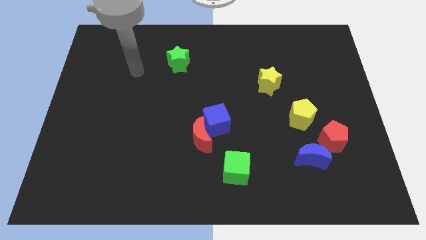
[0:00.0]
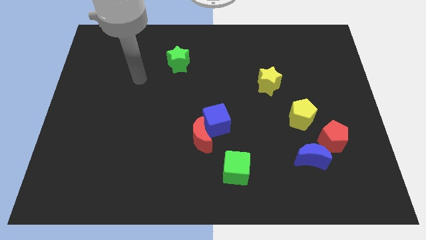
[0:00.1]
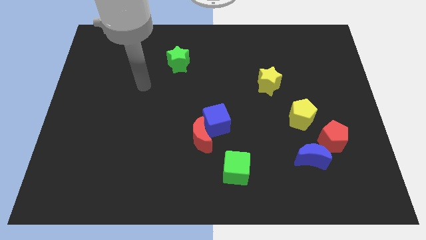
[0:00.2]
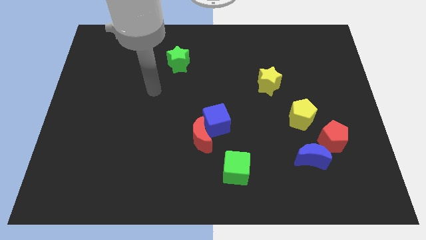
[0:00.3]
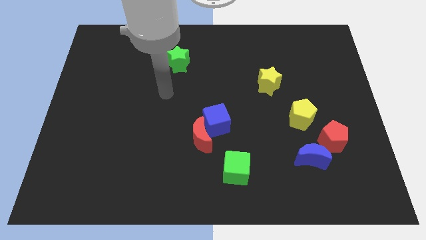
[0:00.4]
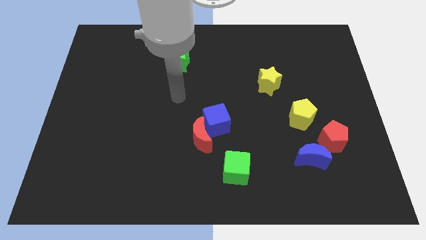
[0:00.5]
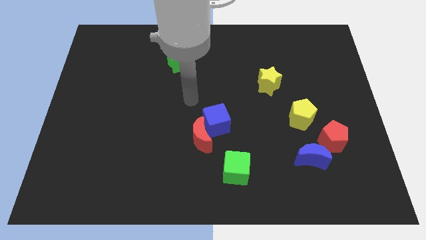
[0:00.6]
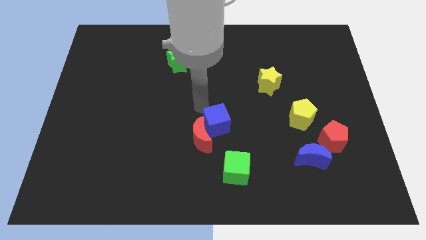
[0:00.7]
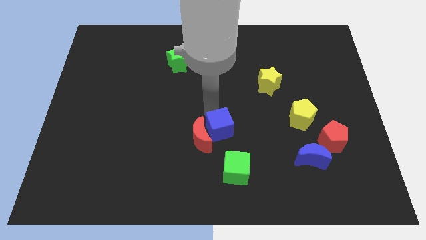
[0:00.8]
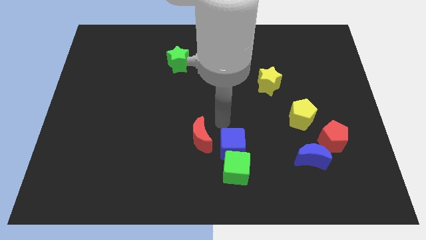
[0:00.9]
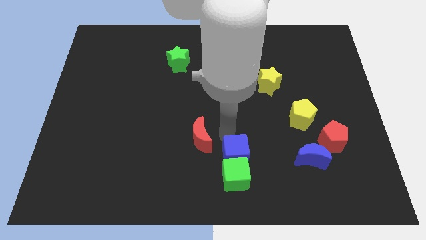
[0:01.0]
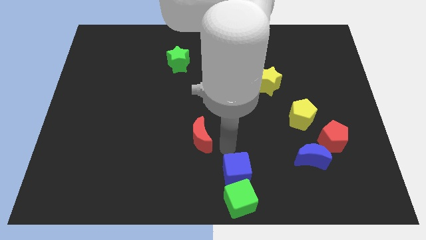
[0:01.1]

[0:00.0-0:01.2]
move the red moon away from the blue cube

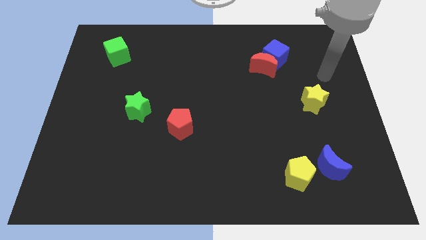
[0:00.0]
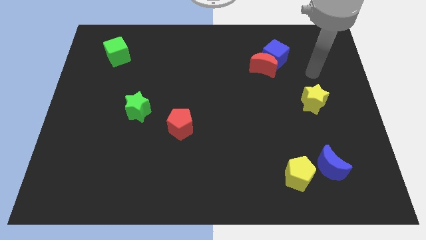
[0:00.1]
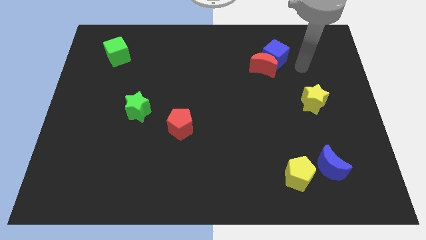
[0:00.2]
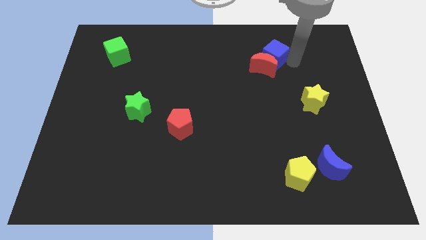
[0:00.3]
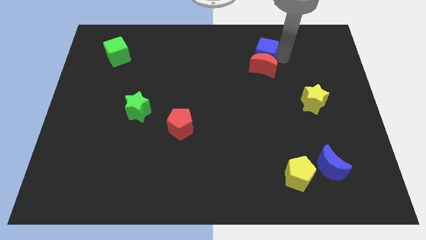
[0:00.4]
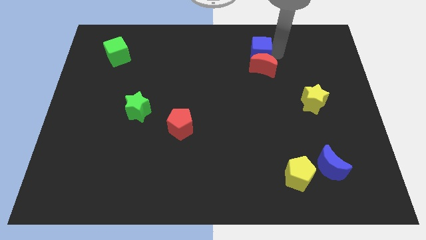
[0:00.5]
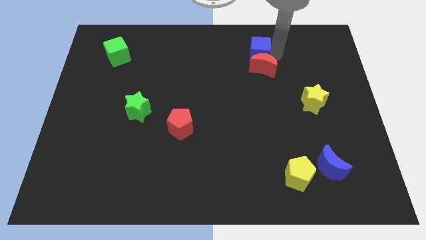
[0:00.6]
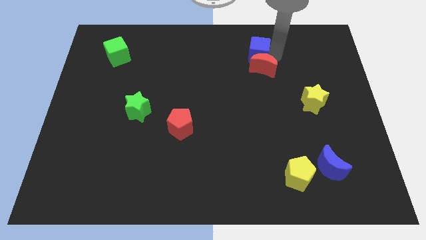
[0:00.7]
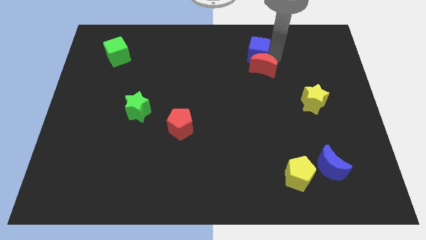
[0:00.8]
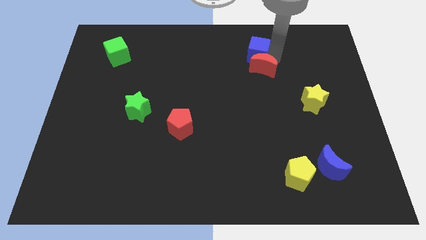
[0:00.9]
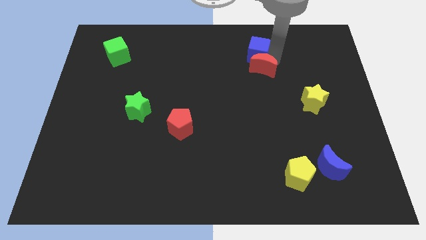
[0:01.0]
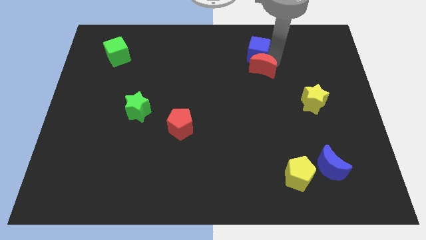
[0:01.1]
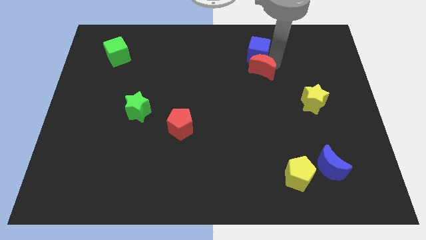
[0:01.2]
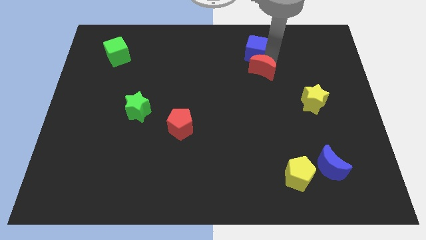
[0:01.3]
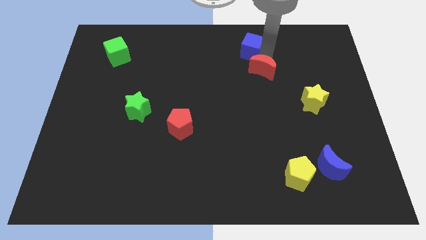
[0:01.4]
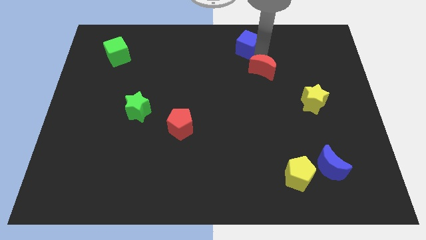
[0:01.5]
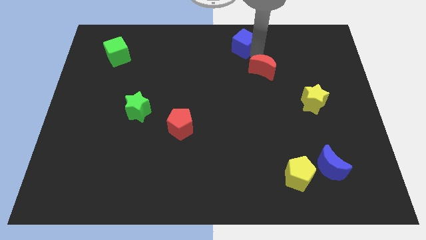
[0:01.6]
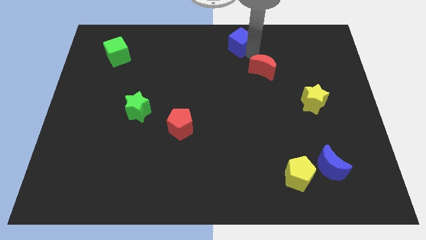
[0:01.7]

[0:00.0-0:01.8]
pull the red moon apart from the blue cube

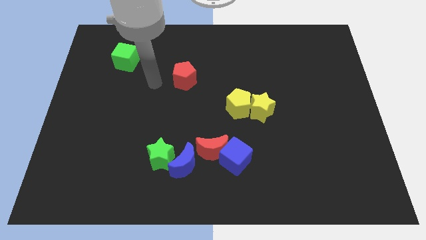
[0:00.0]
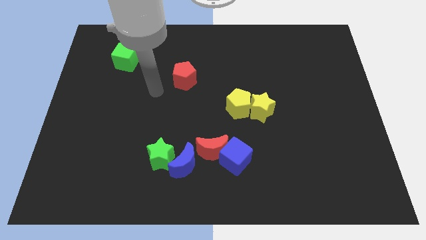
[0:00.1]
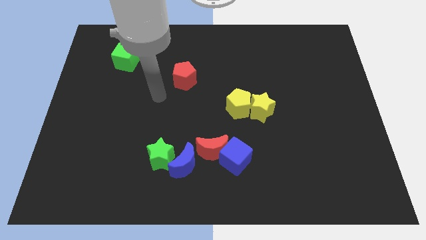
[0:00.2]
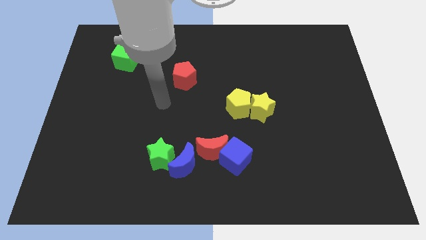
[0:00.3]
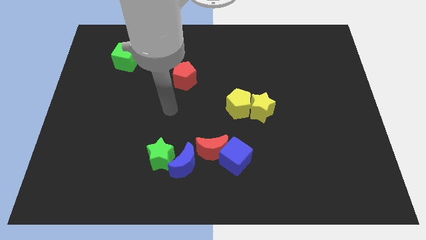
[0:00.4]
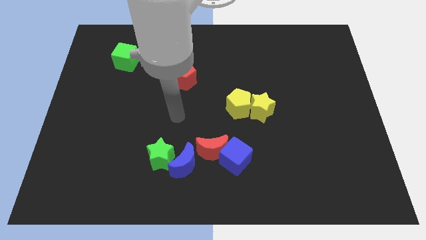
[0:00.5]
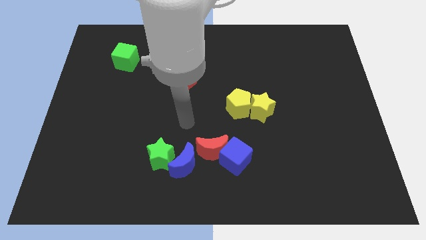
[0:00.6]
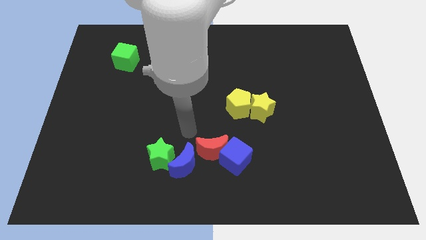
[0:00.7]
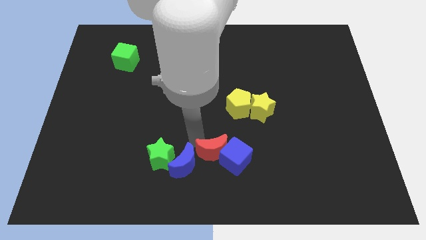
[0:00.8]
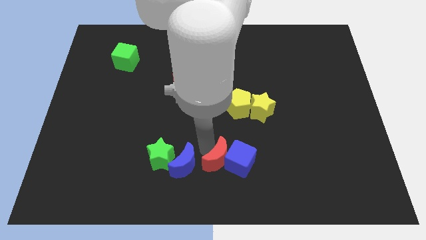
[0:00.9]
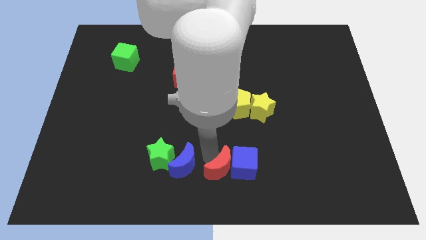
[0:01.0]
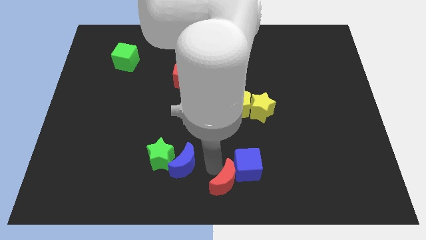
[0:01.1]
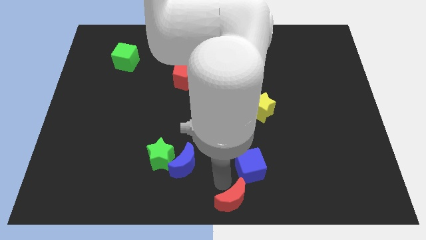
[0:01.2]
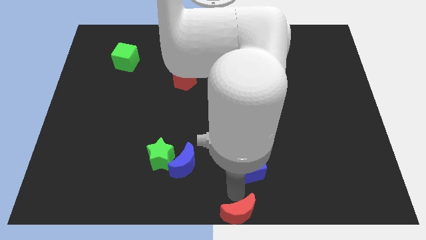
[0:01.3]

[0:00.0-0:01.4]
separate the blue cube from the red moon

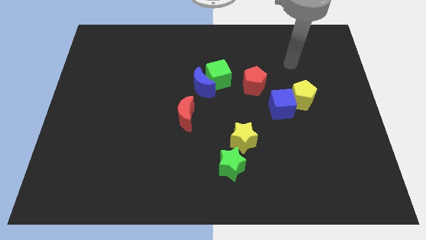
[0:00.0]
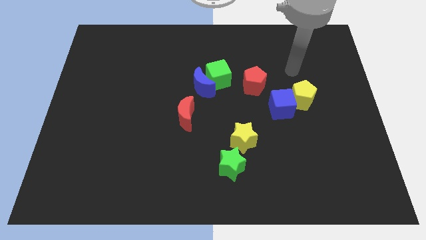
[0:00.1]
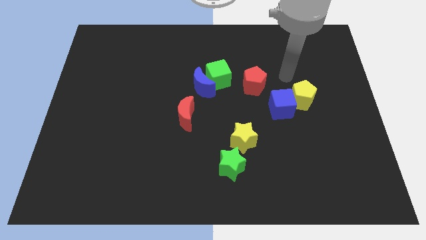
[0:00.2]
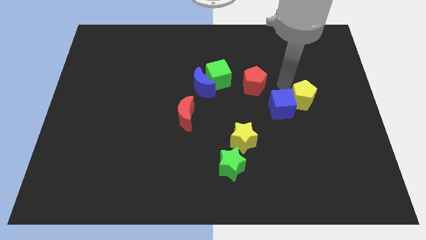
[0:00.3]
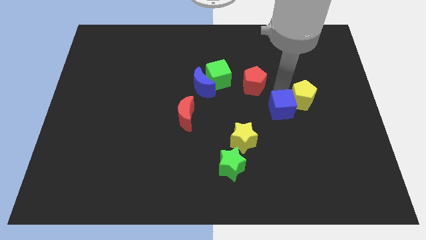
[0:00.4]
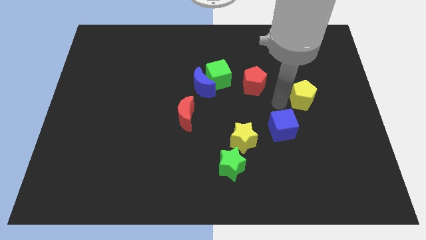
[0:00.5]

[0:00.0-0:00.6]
separate the yellow pentagon from the blue cube

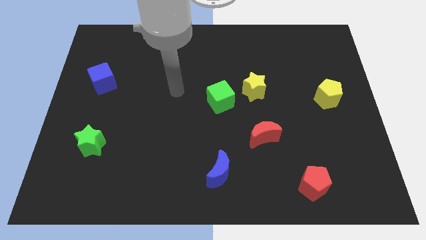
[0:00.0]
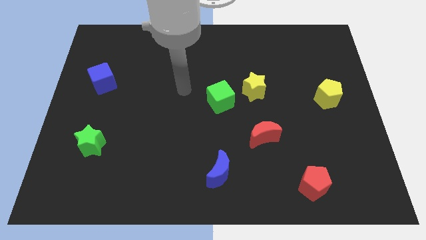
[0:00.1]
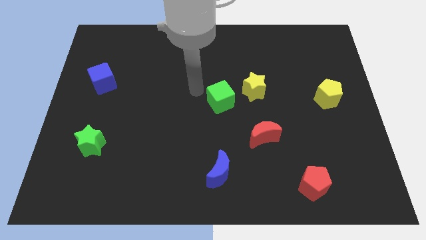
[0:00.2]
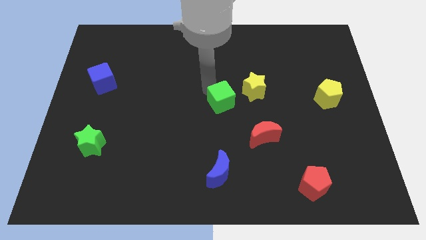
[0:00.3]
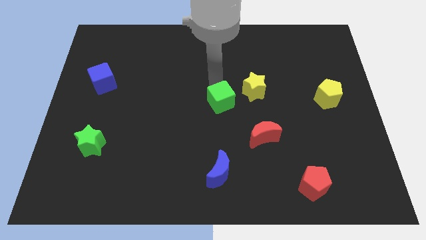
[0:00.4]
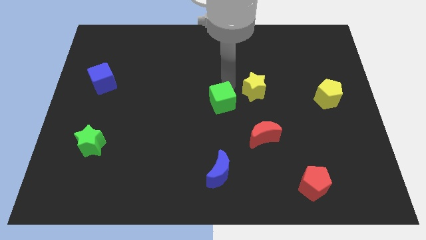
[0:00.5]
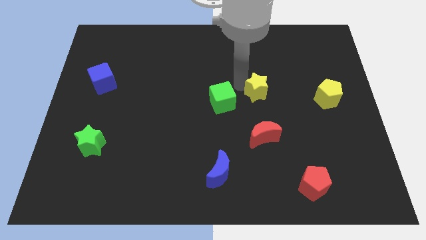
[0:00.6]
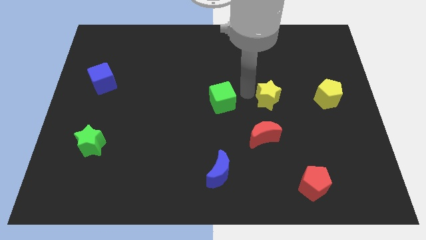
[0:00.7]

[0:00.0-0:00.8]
move the green cube away from the yellow star

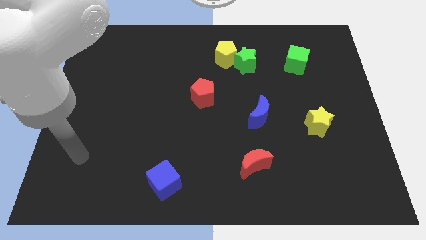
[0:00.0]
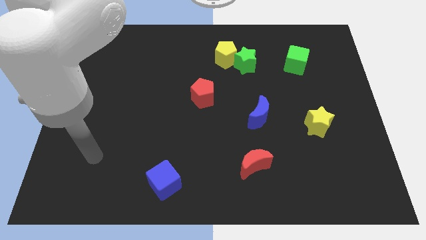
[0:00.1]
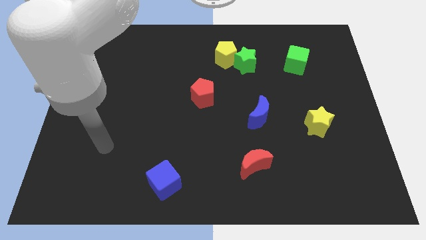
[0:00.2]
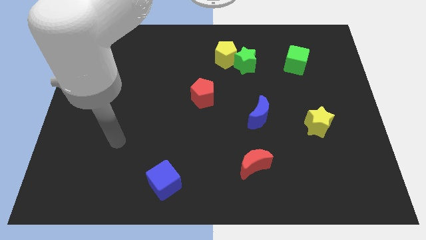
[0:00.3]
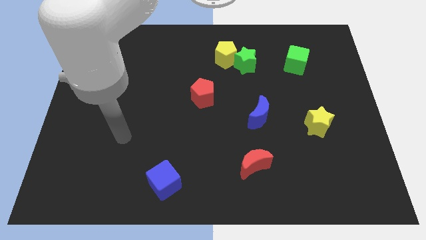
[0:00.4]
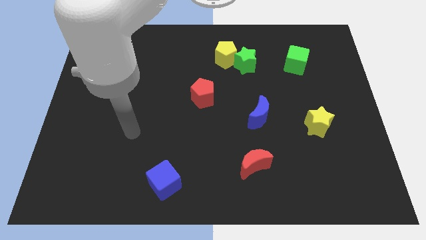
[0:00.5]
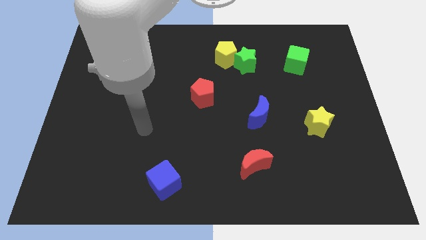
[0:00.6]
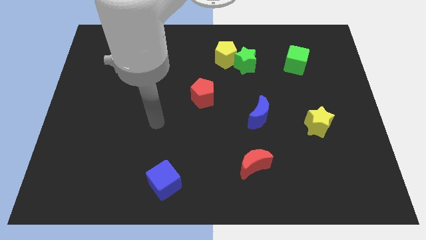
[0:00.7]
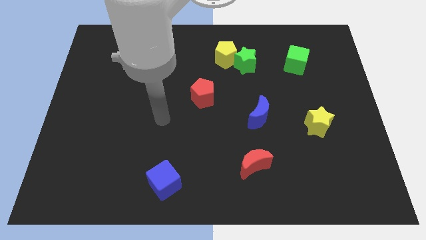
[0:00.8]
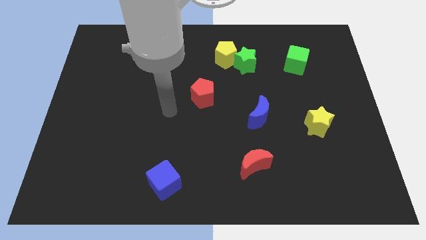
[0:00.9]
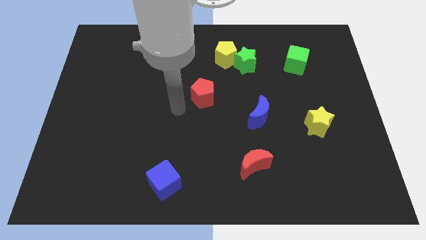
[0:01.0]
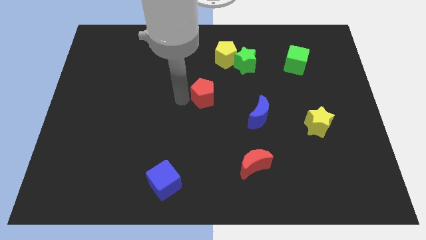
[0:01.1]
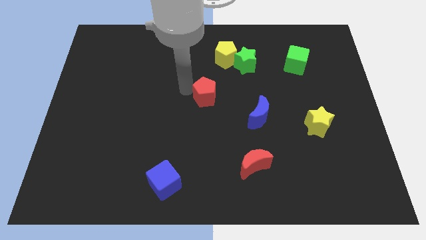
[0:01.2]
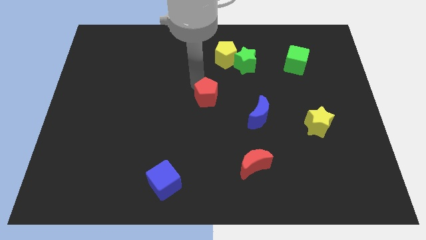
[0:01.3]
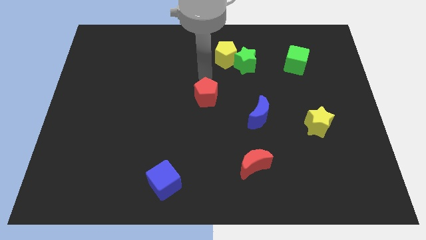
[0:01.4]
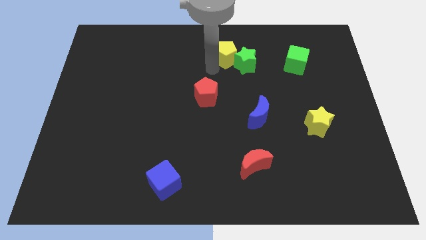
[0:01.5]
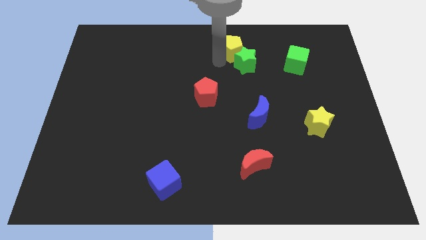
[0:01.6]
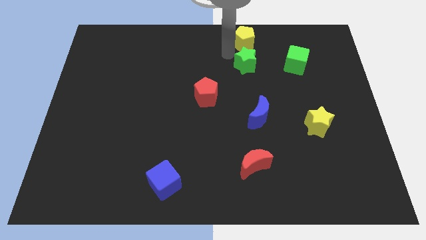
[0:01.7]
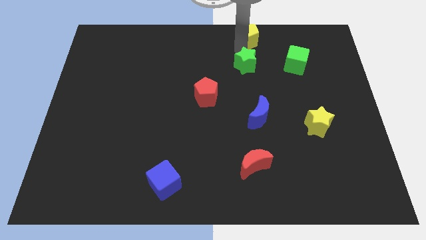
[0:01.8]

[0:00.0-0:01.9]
pull the green star apart from the yellow pentagon

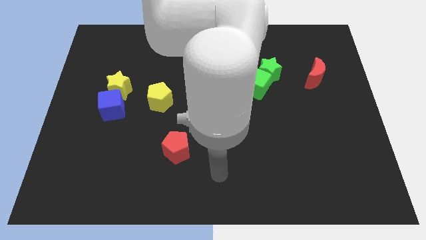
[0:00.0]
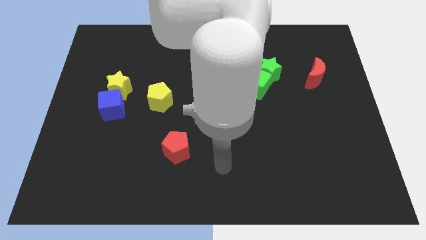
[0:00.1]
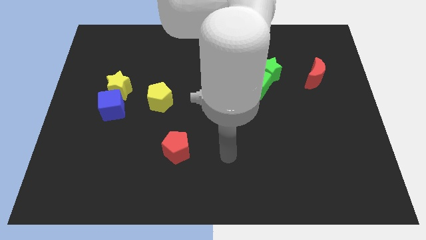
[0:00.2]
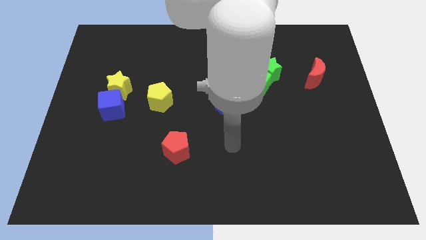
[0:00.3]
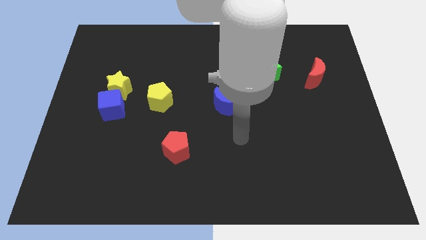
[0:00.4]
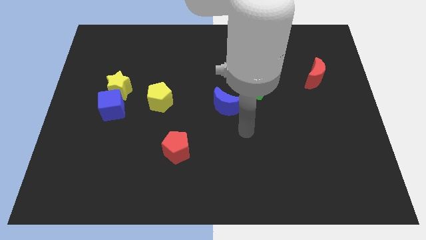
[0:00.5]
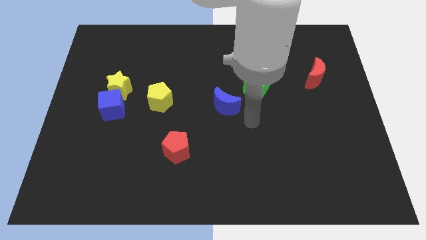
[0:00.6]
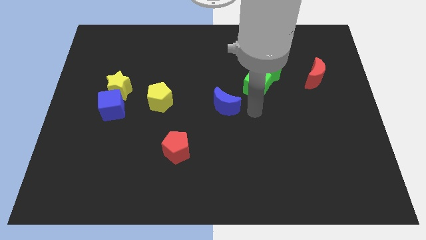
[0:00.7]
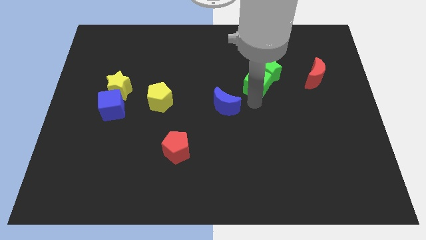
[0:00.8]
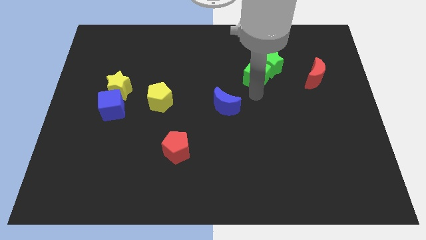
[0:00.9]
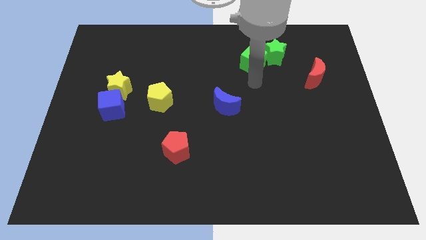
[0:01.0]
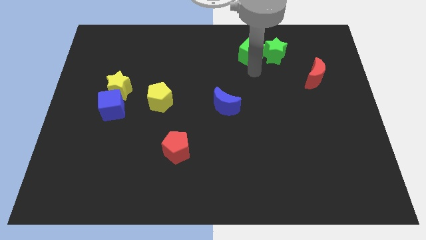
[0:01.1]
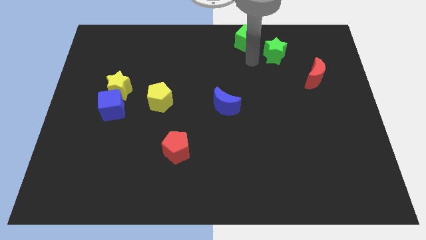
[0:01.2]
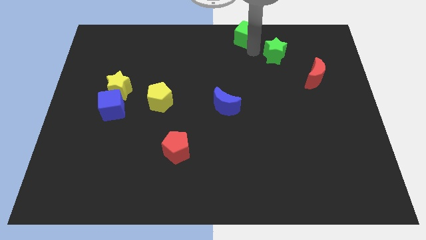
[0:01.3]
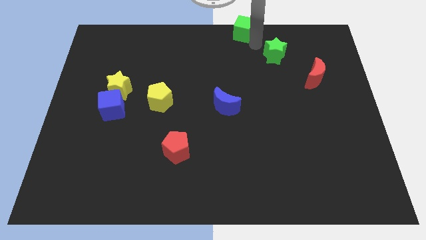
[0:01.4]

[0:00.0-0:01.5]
move the green star away from the green cube

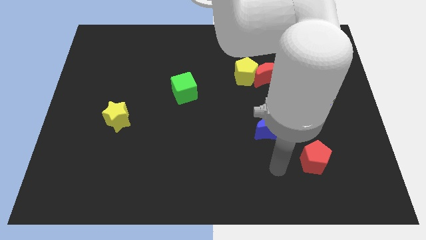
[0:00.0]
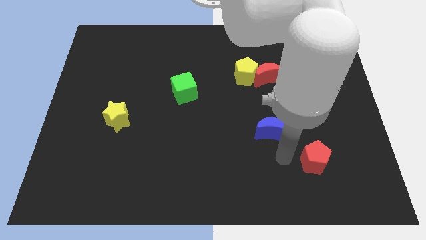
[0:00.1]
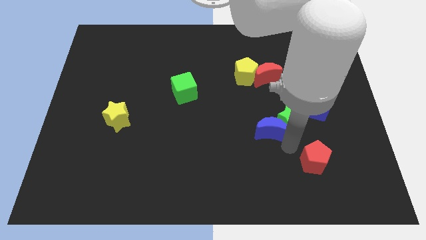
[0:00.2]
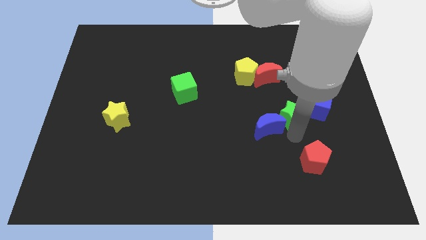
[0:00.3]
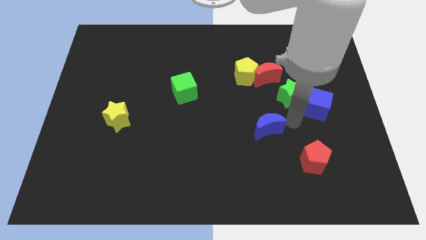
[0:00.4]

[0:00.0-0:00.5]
pull the blue moon apart from the green star
